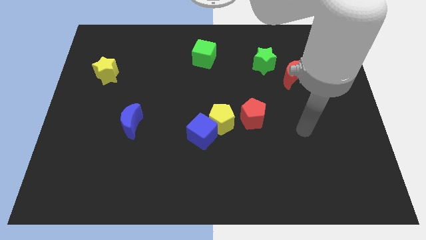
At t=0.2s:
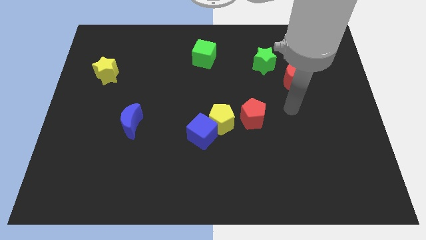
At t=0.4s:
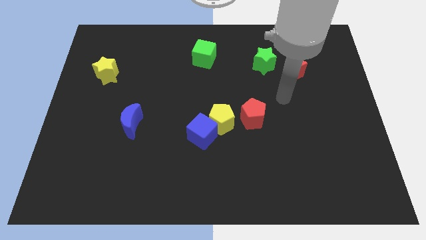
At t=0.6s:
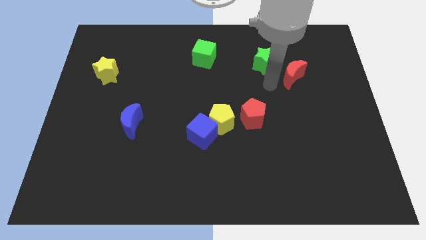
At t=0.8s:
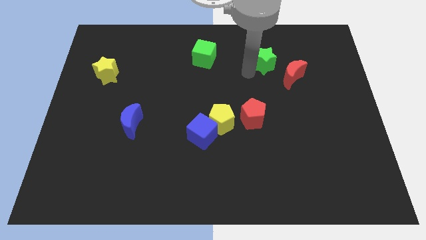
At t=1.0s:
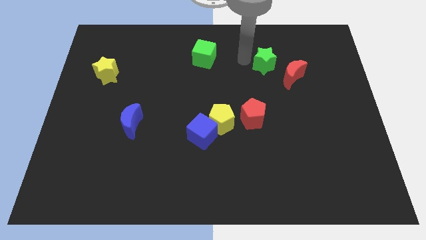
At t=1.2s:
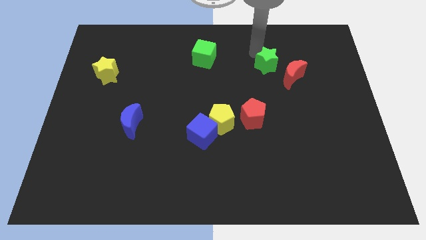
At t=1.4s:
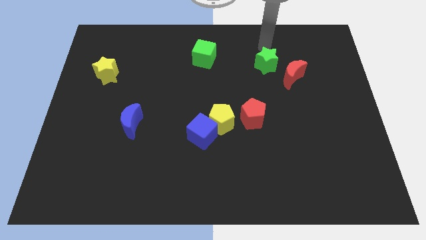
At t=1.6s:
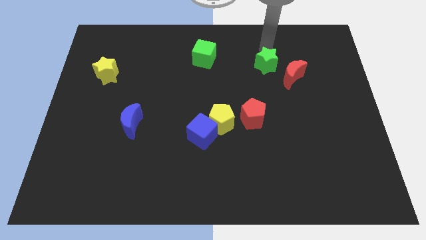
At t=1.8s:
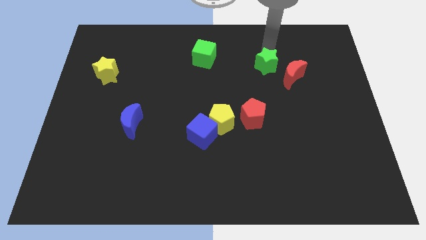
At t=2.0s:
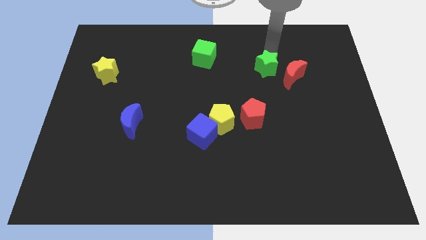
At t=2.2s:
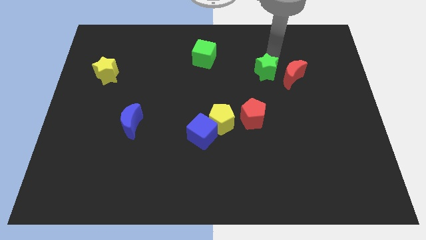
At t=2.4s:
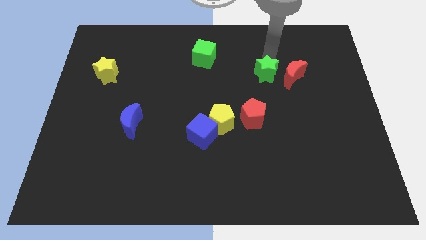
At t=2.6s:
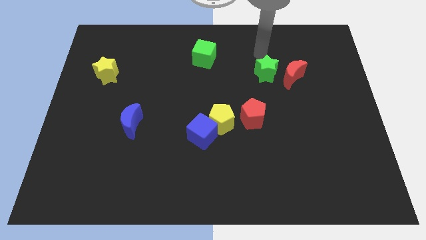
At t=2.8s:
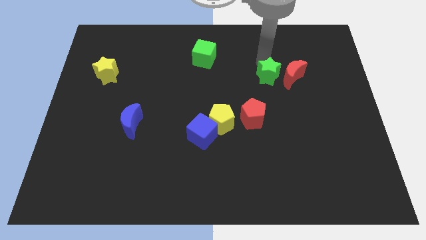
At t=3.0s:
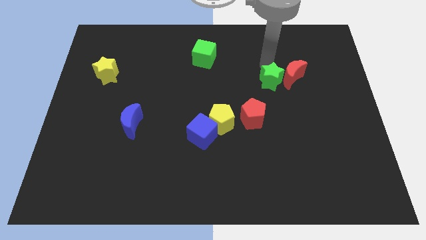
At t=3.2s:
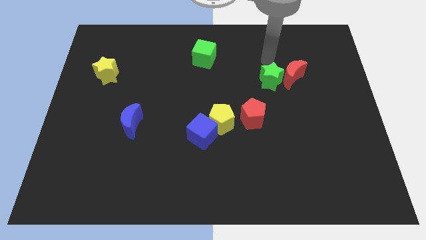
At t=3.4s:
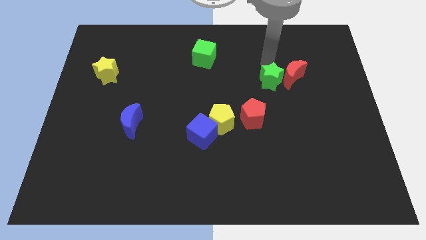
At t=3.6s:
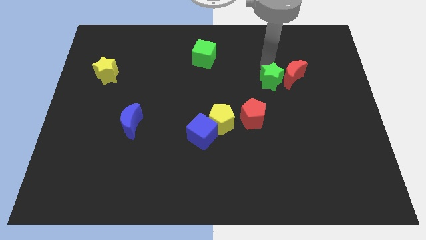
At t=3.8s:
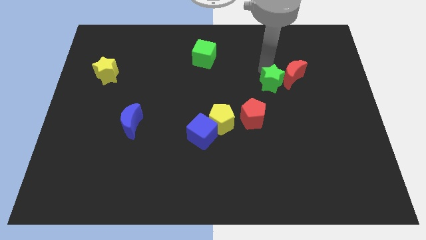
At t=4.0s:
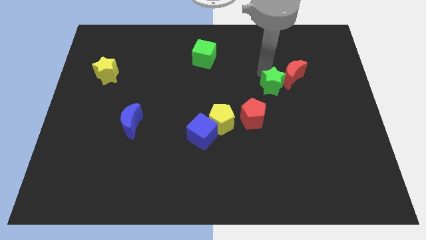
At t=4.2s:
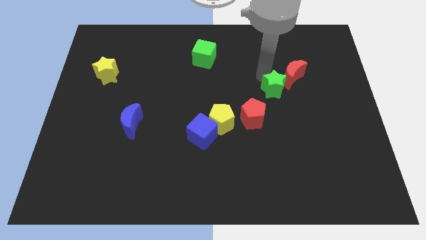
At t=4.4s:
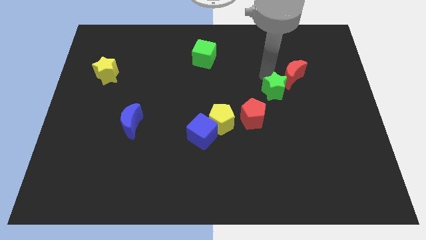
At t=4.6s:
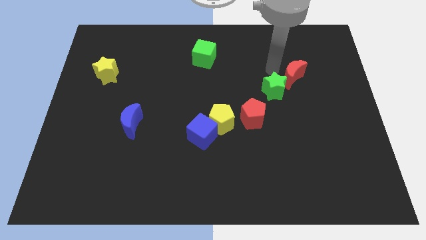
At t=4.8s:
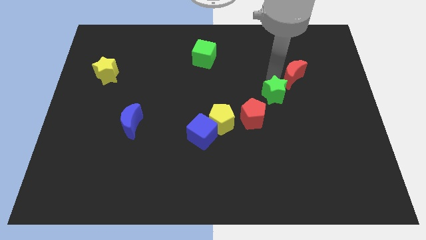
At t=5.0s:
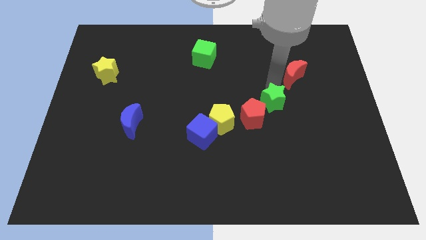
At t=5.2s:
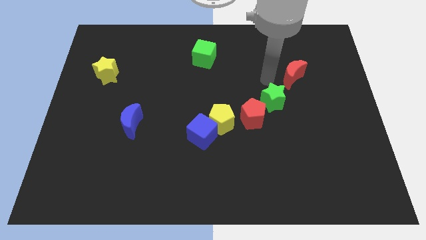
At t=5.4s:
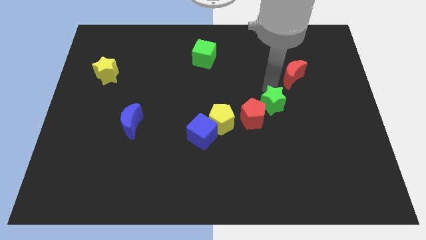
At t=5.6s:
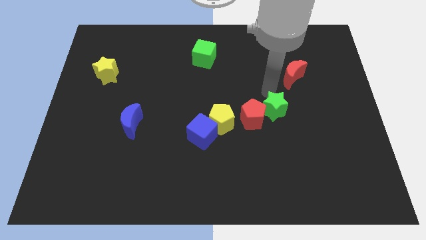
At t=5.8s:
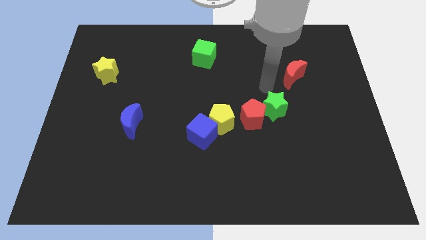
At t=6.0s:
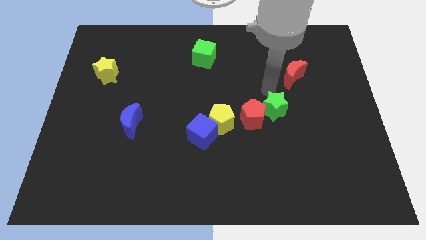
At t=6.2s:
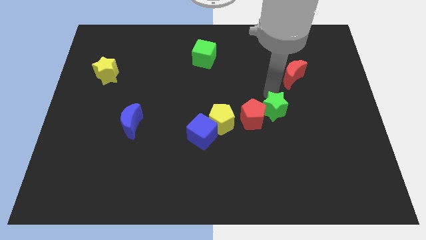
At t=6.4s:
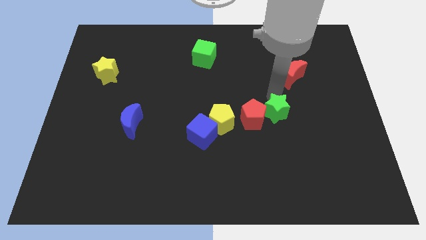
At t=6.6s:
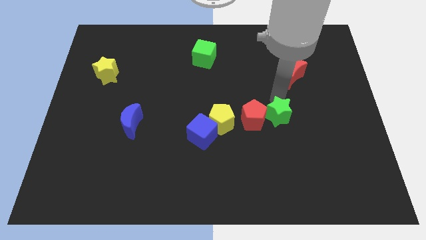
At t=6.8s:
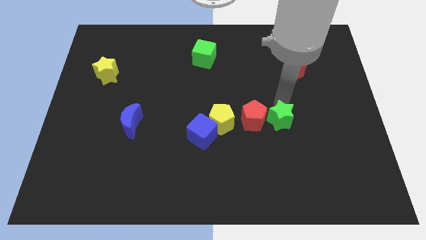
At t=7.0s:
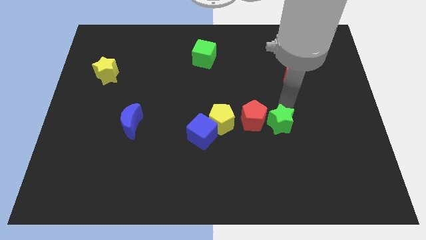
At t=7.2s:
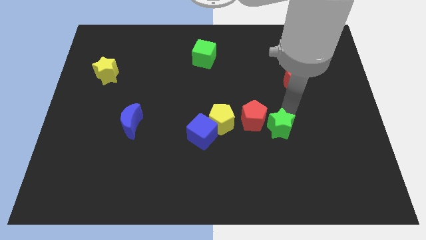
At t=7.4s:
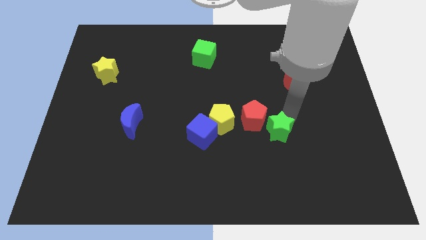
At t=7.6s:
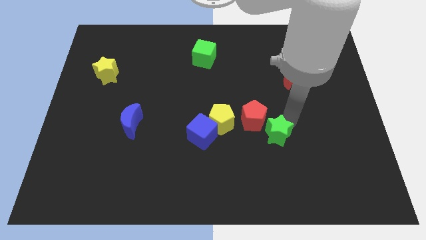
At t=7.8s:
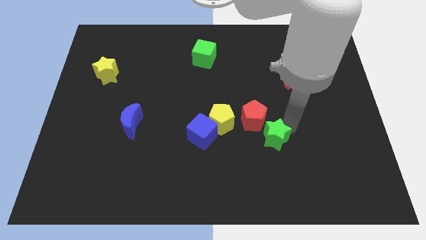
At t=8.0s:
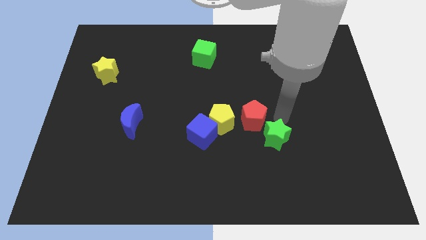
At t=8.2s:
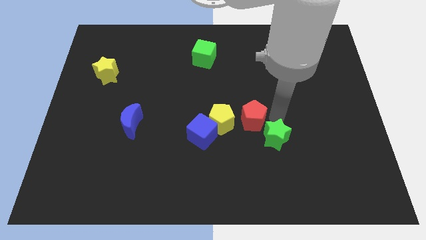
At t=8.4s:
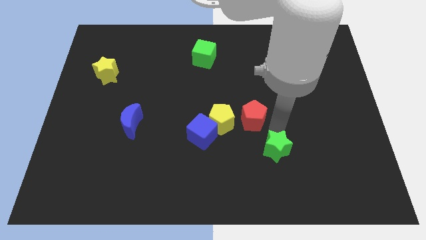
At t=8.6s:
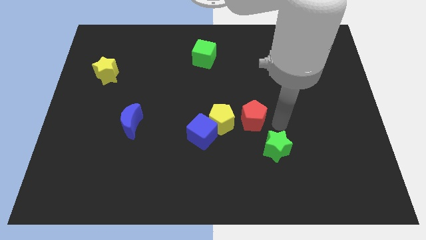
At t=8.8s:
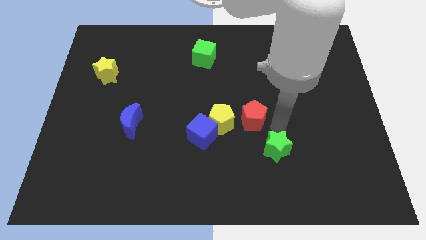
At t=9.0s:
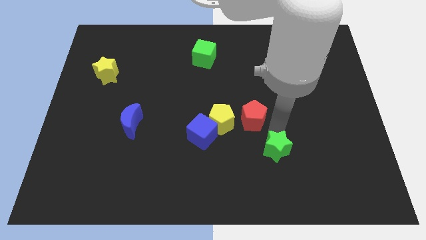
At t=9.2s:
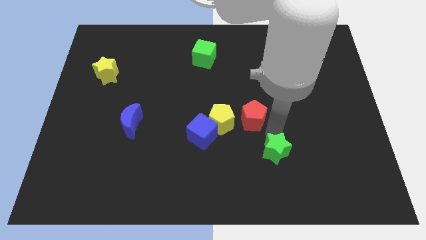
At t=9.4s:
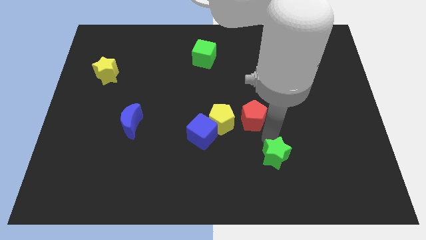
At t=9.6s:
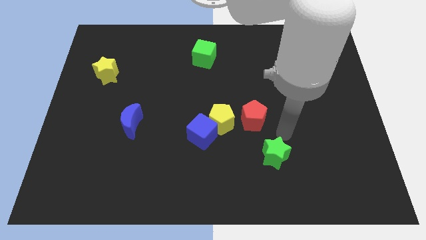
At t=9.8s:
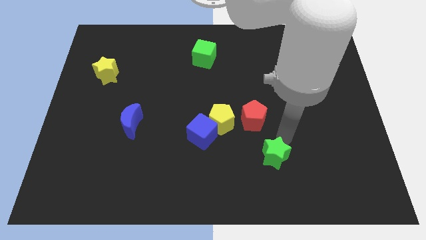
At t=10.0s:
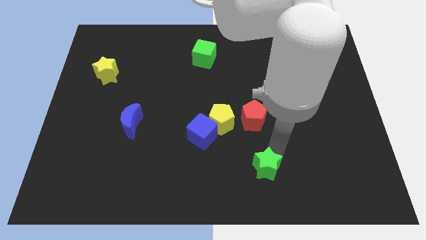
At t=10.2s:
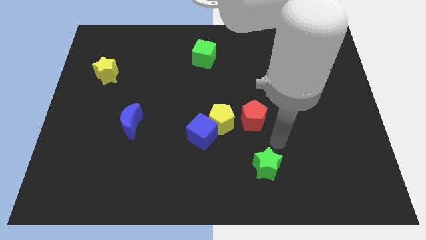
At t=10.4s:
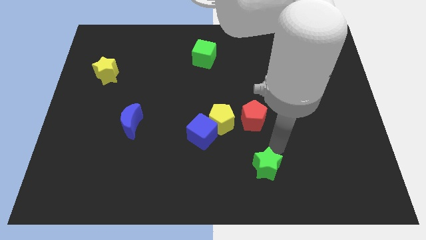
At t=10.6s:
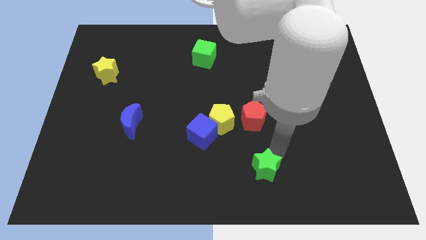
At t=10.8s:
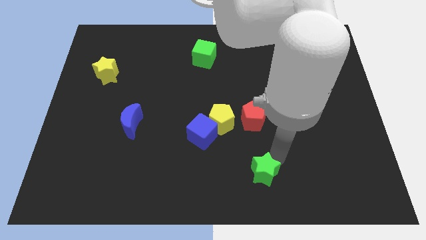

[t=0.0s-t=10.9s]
push the green star to the bottom
